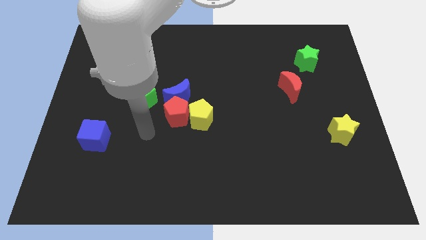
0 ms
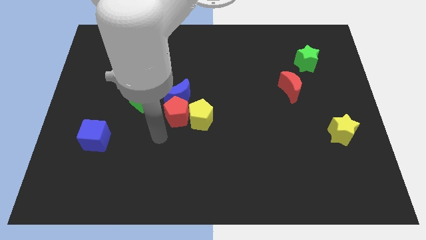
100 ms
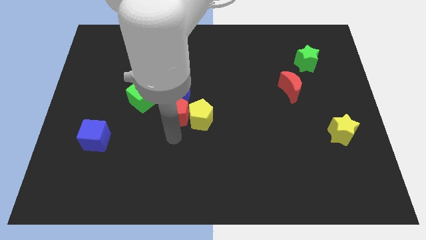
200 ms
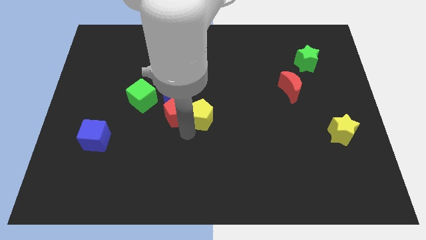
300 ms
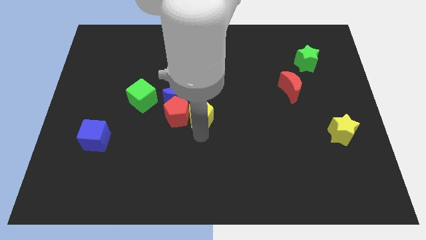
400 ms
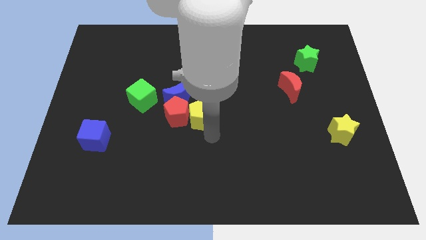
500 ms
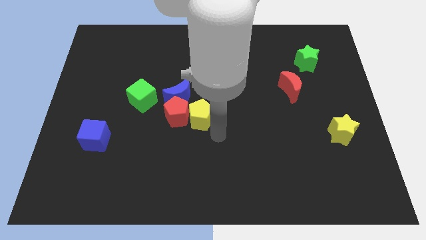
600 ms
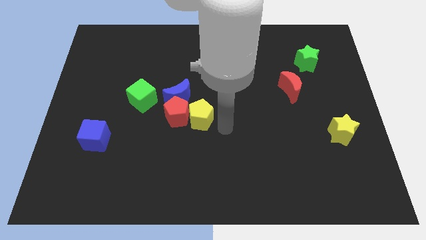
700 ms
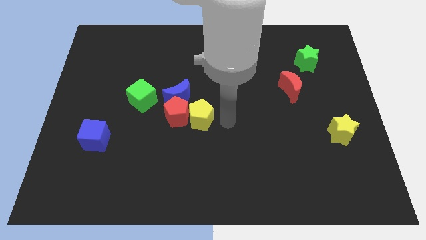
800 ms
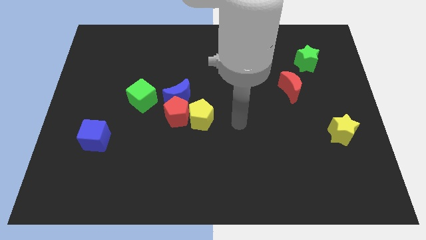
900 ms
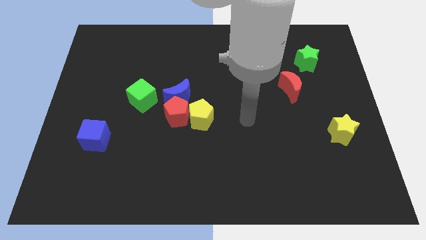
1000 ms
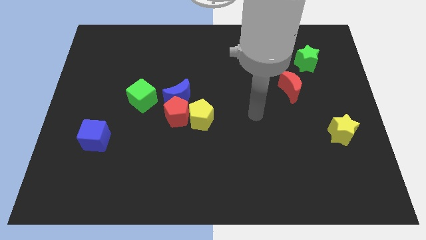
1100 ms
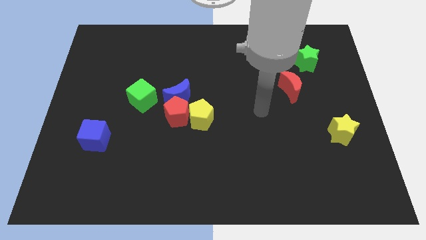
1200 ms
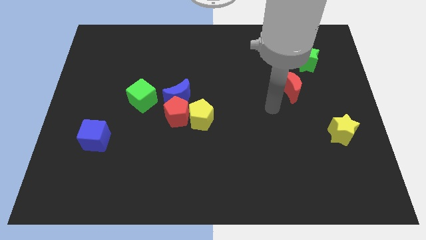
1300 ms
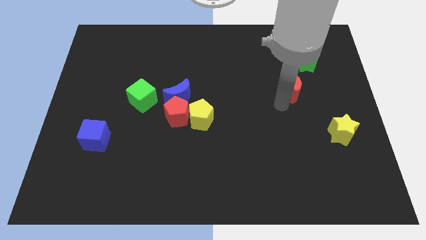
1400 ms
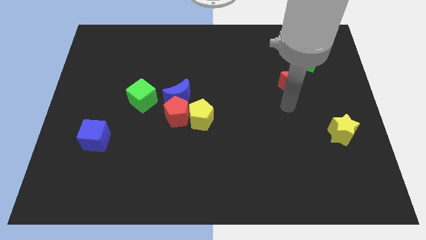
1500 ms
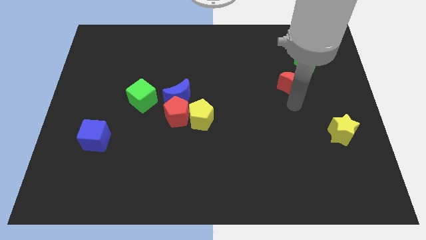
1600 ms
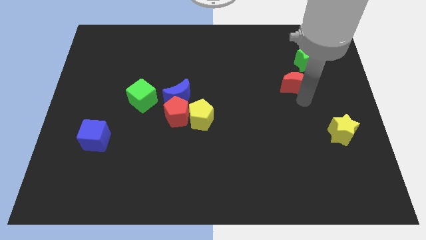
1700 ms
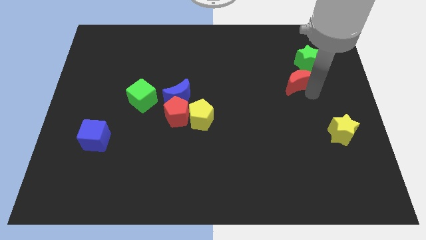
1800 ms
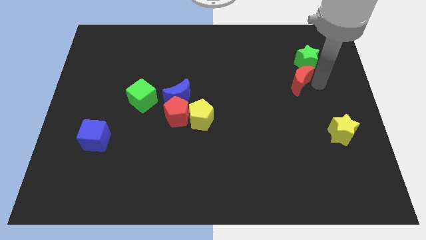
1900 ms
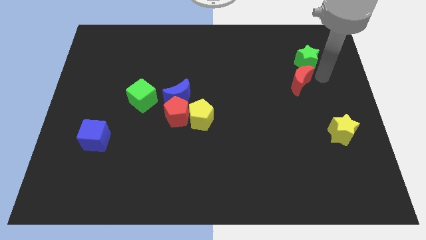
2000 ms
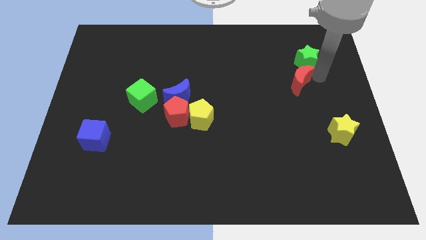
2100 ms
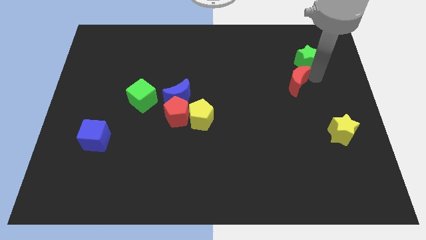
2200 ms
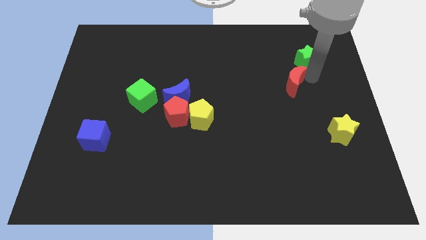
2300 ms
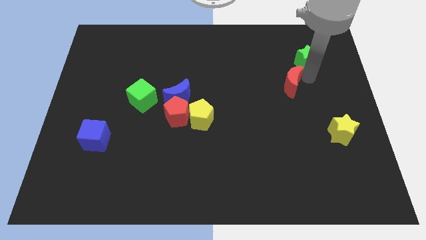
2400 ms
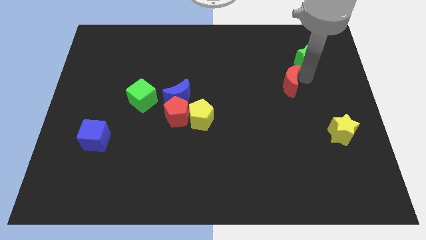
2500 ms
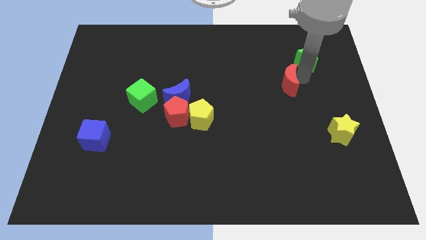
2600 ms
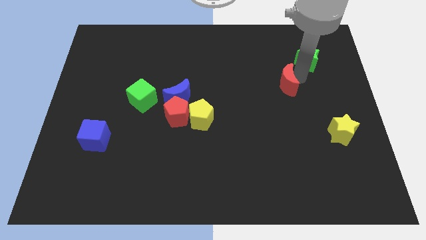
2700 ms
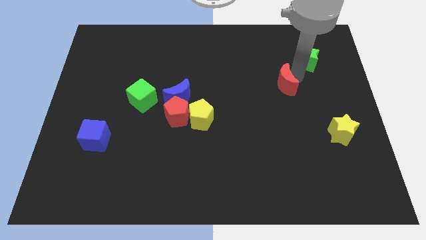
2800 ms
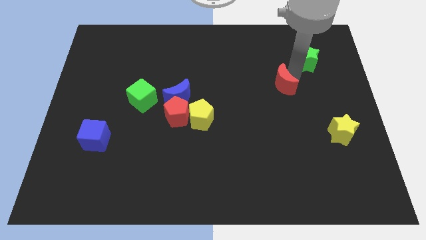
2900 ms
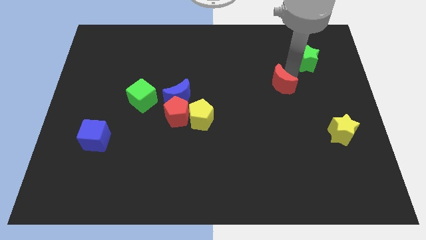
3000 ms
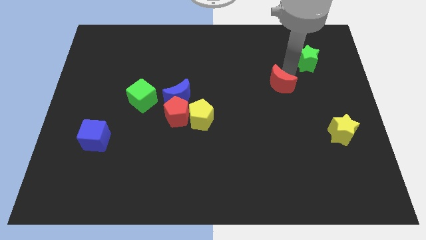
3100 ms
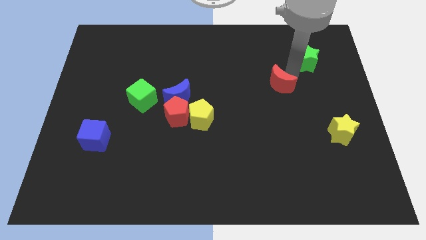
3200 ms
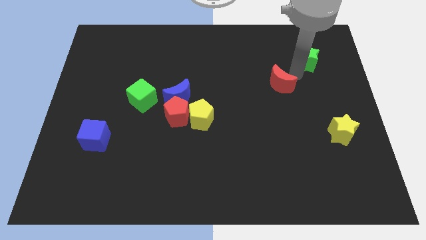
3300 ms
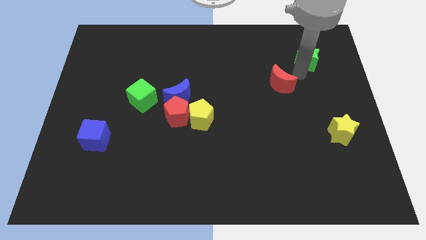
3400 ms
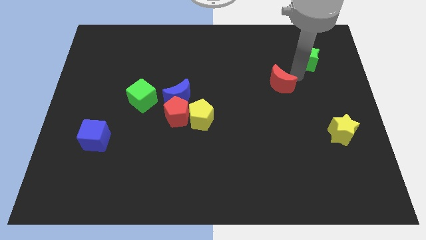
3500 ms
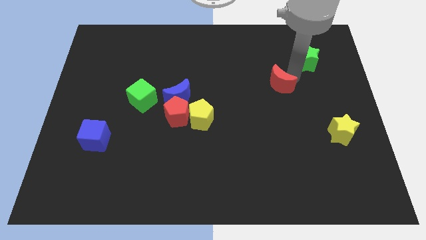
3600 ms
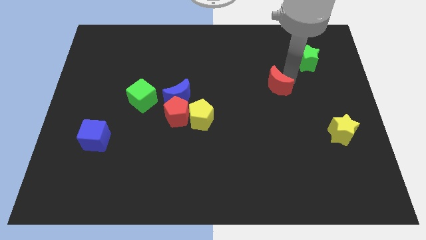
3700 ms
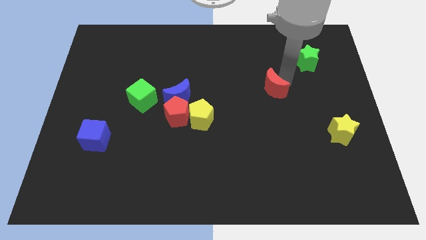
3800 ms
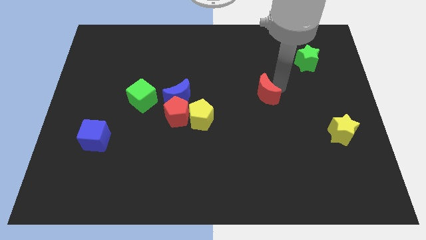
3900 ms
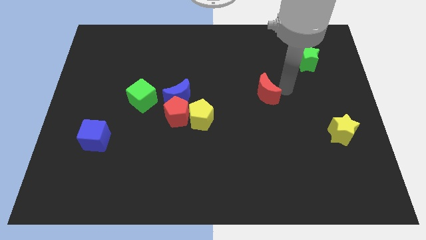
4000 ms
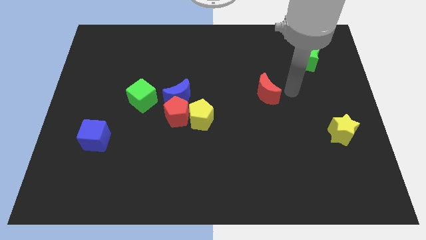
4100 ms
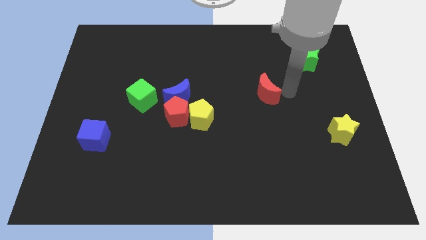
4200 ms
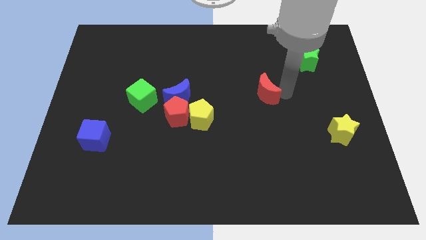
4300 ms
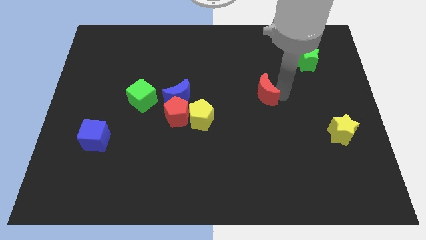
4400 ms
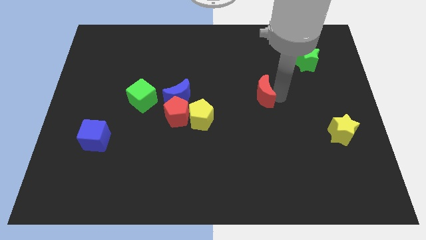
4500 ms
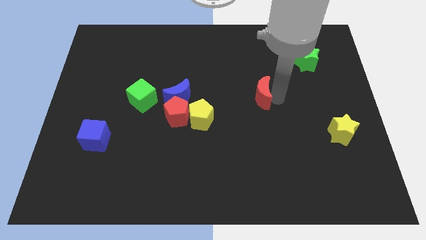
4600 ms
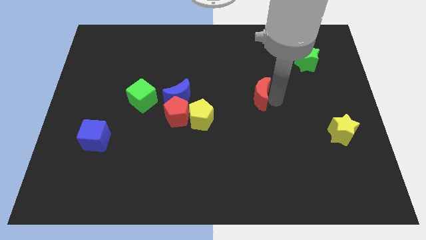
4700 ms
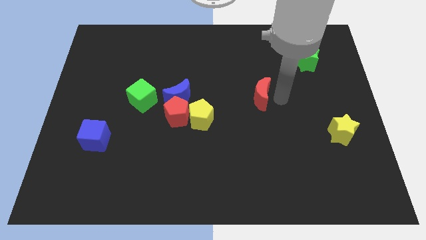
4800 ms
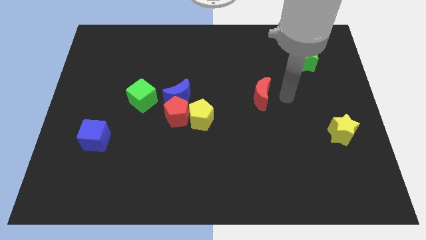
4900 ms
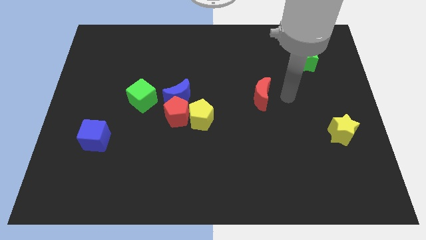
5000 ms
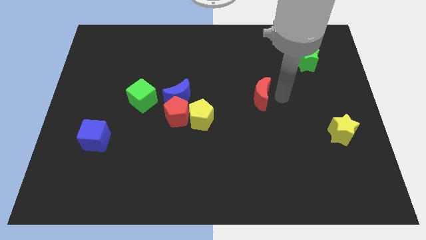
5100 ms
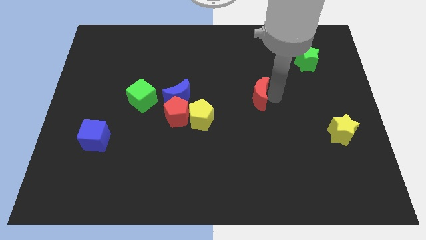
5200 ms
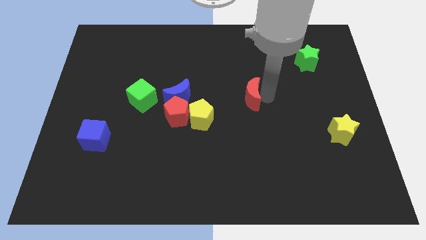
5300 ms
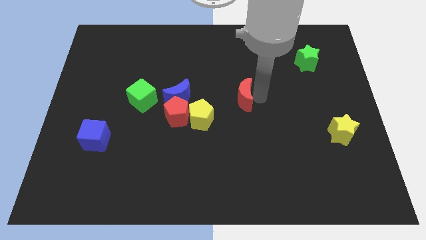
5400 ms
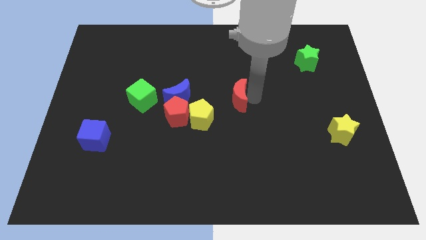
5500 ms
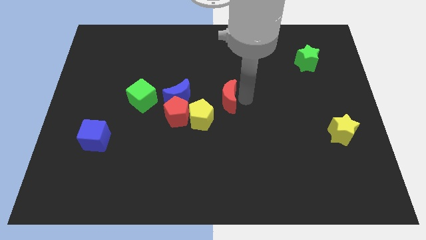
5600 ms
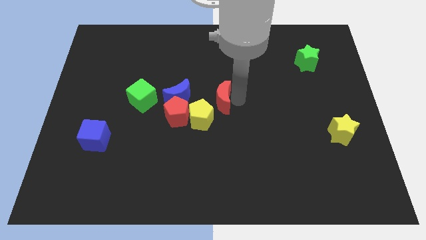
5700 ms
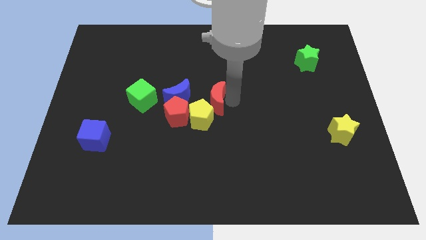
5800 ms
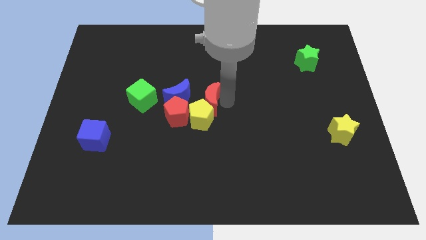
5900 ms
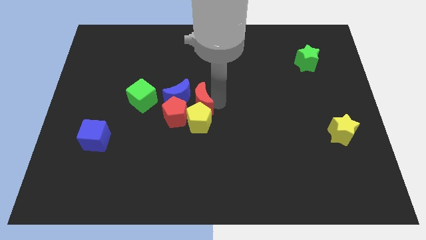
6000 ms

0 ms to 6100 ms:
move the red moon to the blue moon

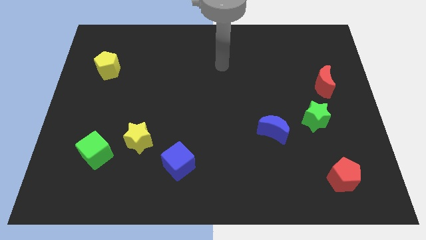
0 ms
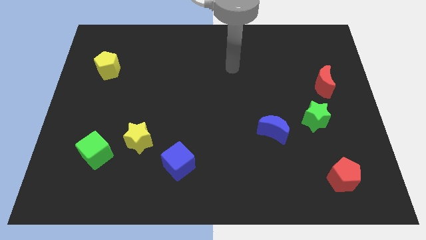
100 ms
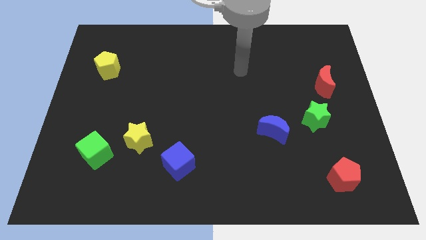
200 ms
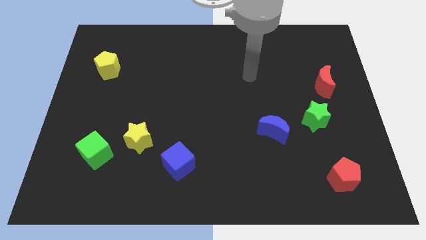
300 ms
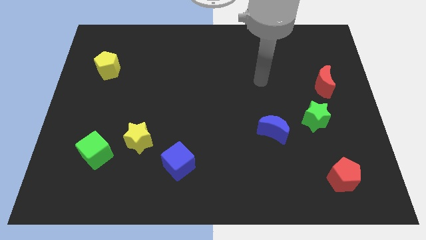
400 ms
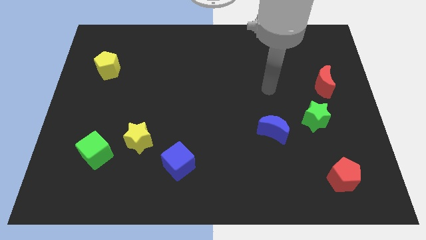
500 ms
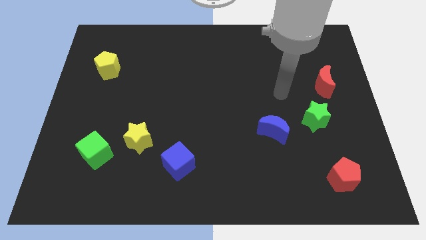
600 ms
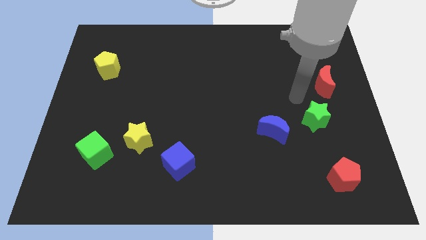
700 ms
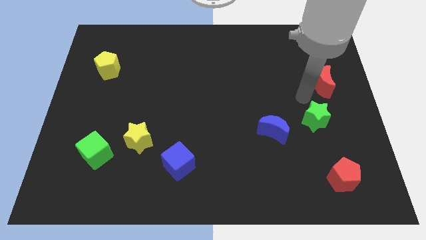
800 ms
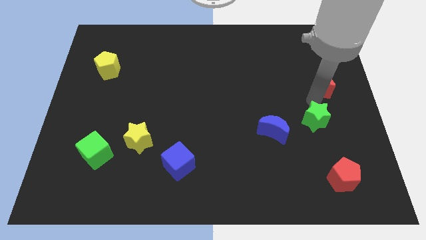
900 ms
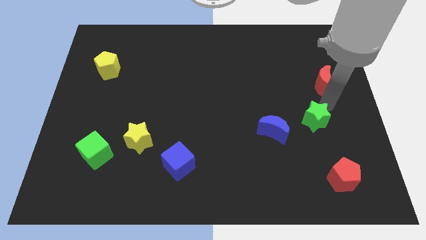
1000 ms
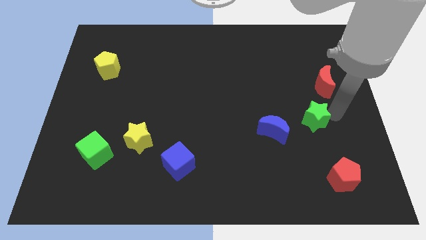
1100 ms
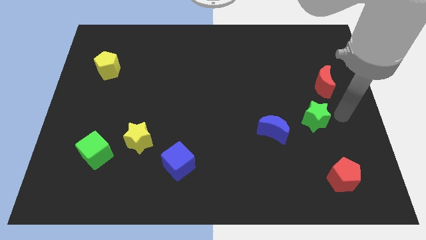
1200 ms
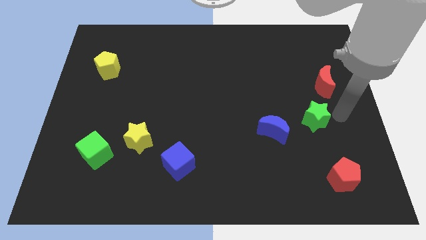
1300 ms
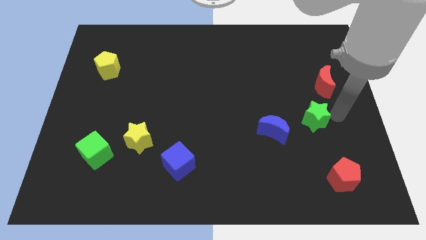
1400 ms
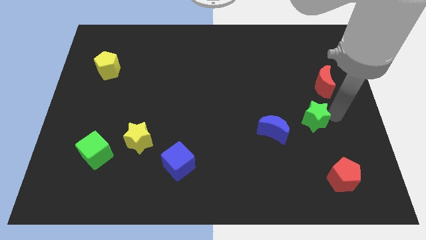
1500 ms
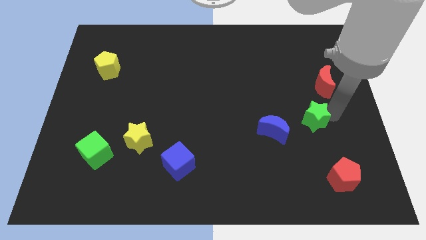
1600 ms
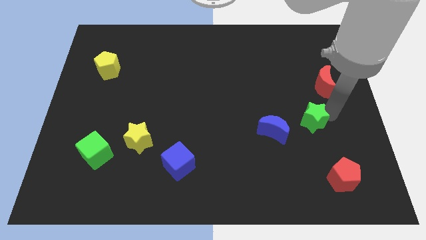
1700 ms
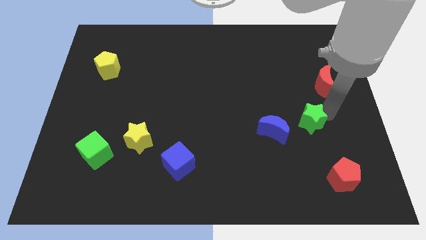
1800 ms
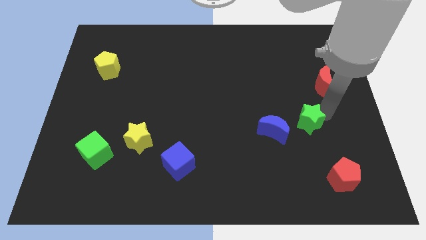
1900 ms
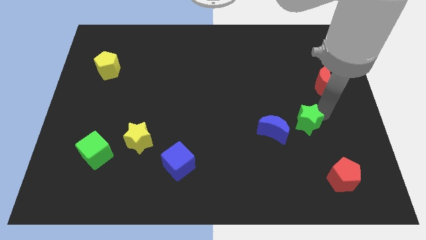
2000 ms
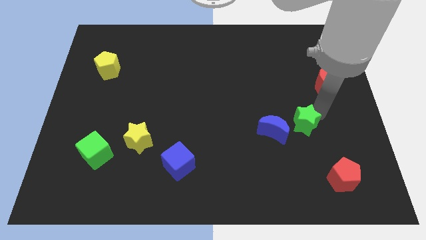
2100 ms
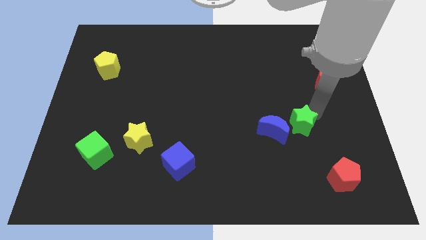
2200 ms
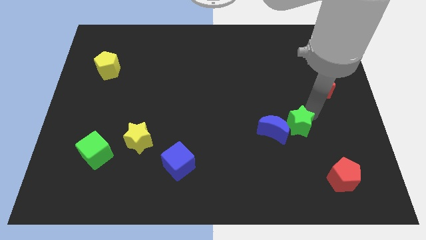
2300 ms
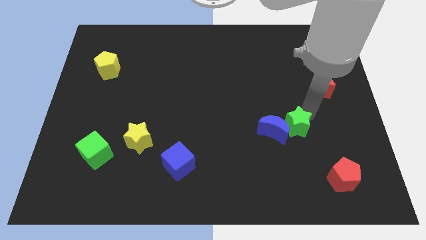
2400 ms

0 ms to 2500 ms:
push the green star next to the blue moon
